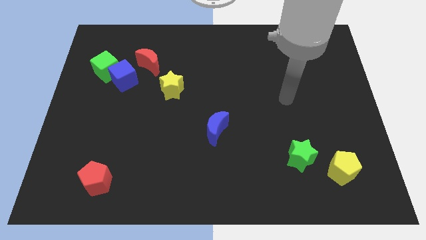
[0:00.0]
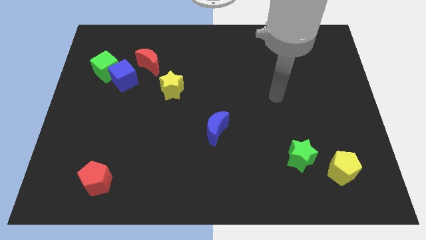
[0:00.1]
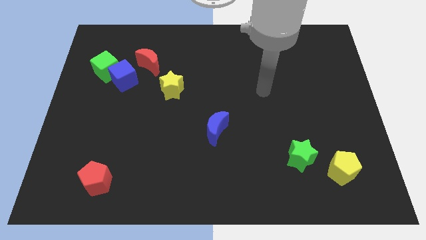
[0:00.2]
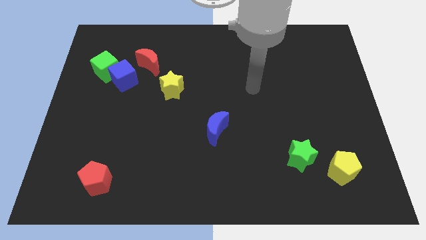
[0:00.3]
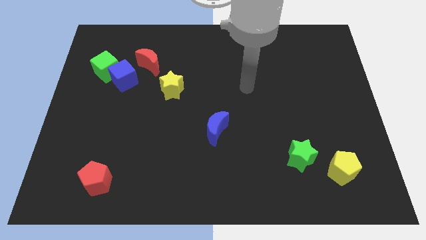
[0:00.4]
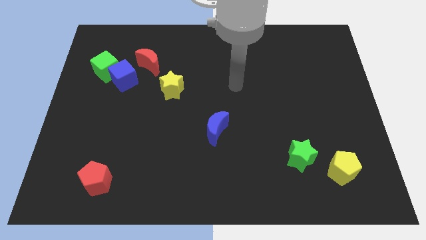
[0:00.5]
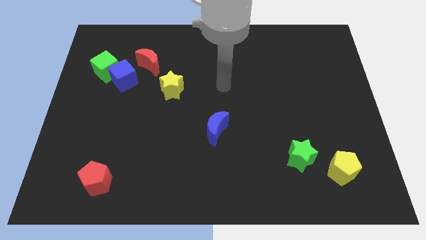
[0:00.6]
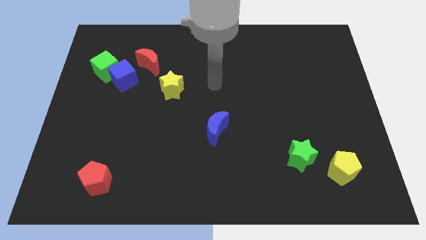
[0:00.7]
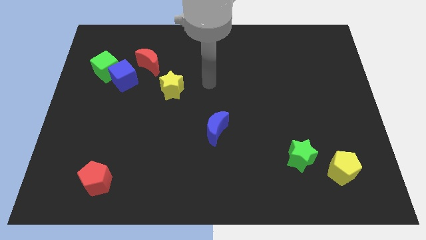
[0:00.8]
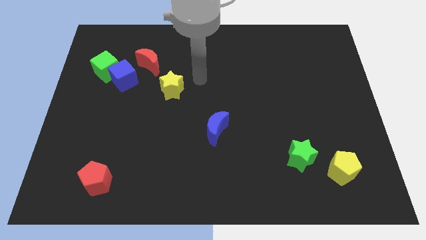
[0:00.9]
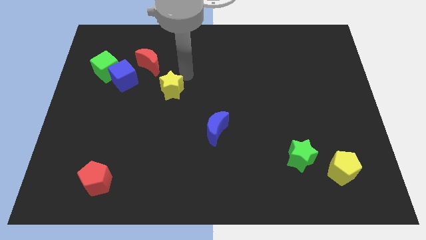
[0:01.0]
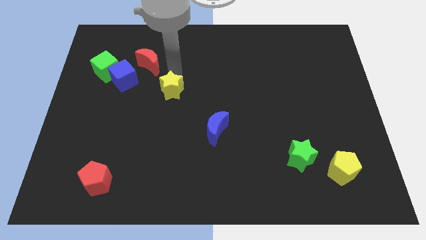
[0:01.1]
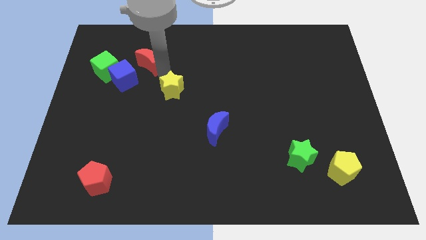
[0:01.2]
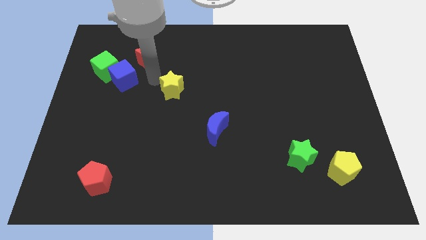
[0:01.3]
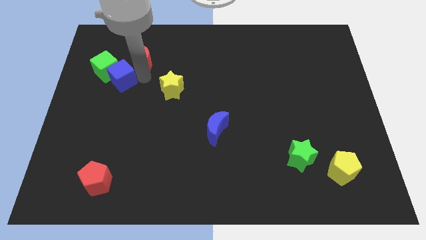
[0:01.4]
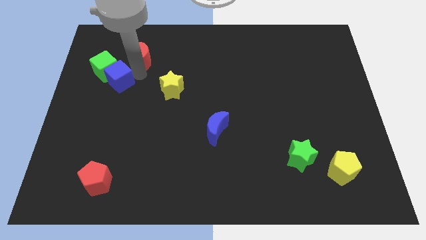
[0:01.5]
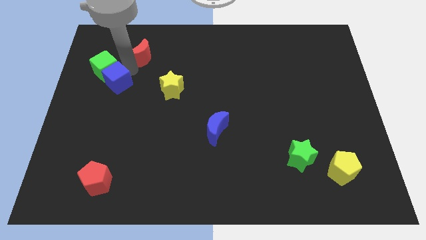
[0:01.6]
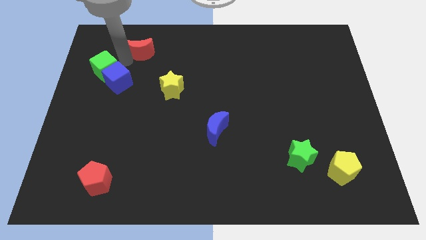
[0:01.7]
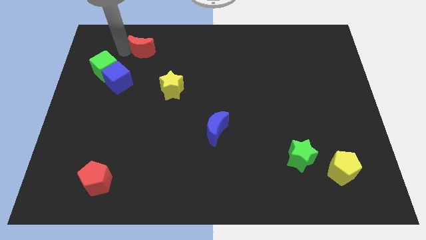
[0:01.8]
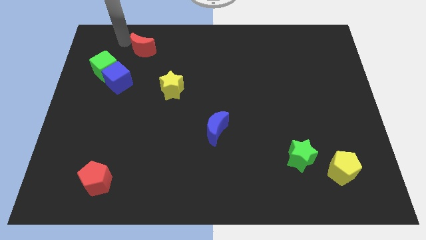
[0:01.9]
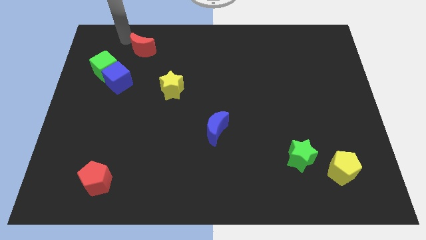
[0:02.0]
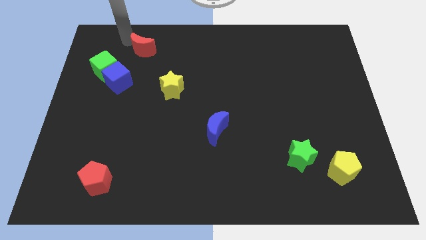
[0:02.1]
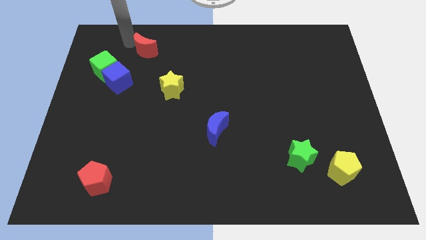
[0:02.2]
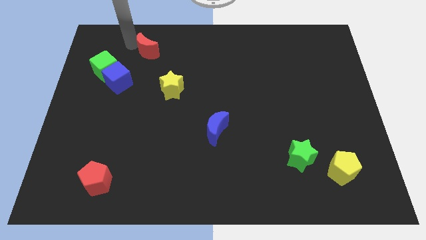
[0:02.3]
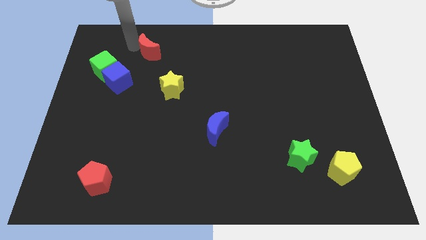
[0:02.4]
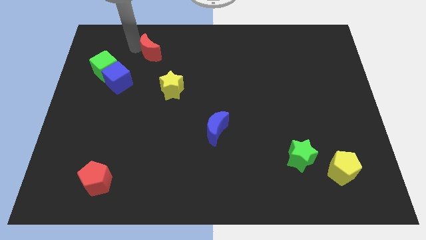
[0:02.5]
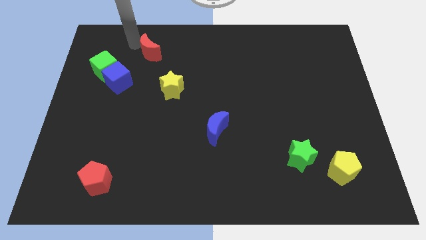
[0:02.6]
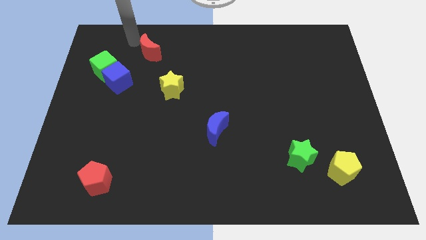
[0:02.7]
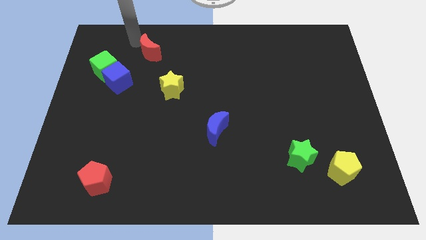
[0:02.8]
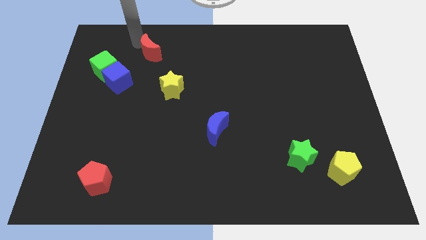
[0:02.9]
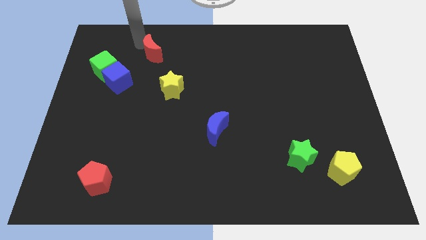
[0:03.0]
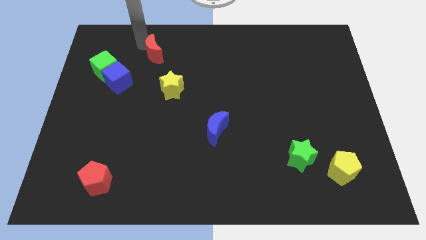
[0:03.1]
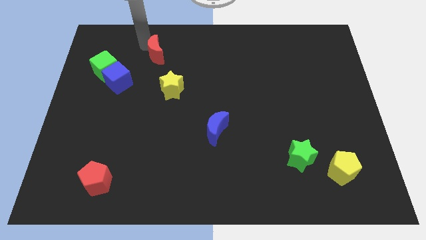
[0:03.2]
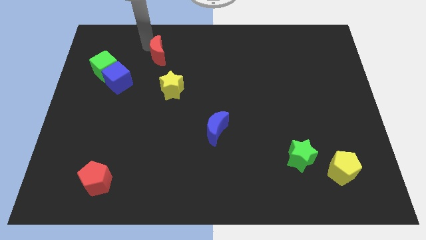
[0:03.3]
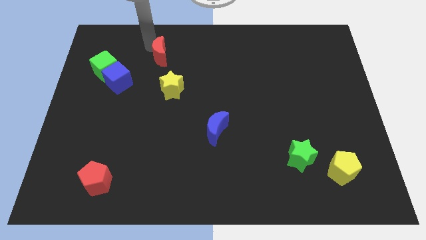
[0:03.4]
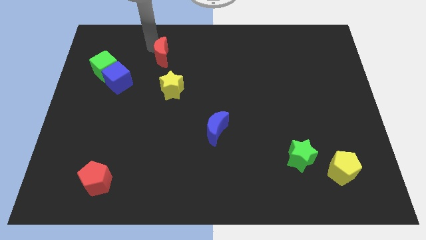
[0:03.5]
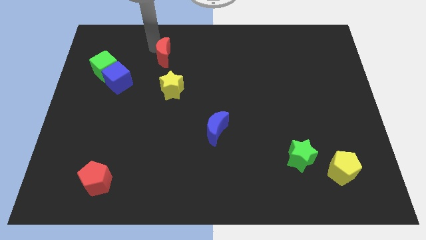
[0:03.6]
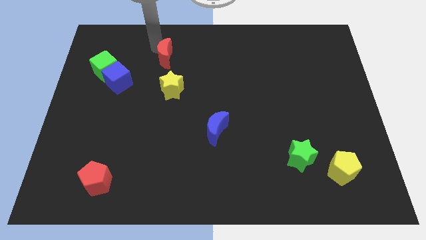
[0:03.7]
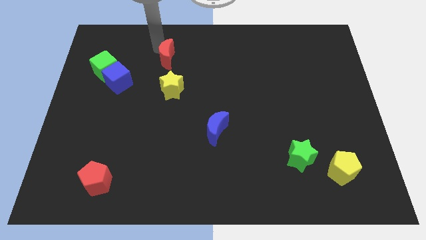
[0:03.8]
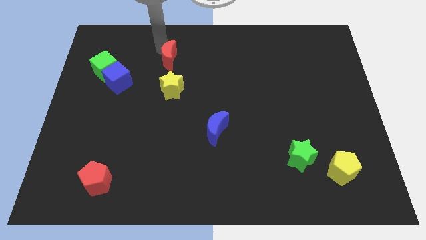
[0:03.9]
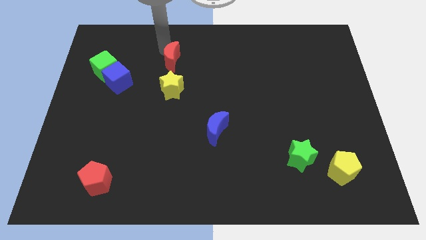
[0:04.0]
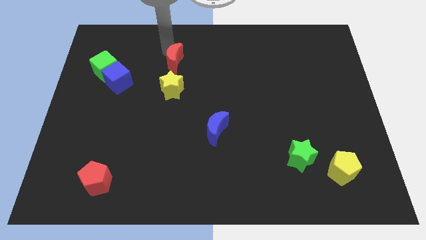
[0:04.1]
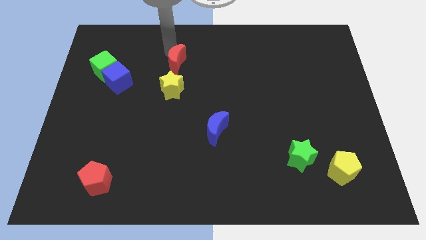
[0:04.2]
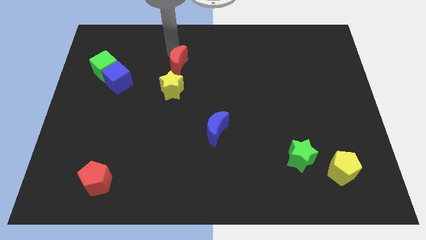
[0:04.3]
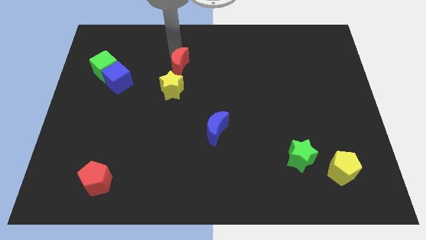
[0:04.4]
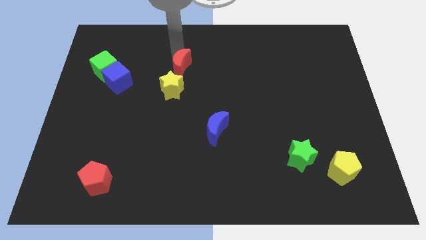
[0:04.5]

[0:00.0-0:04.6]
push the red moon to the top right of the yellow star

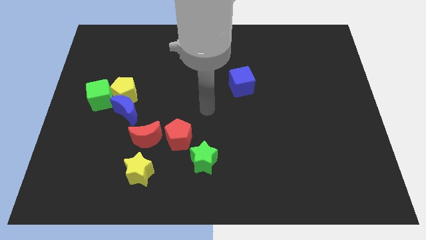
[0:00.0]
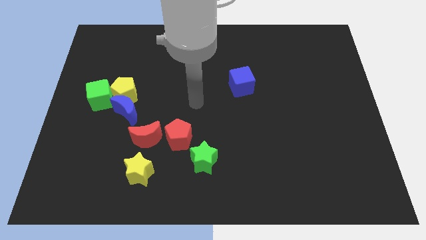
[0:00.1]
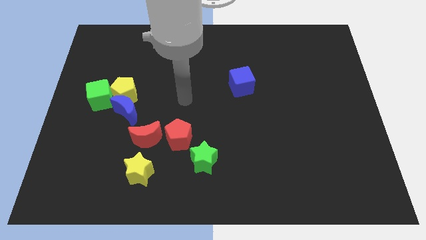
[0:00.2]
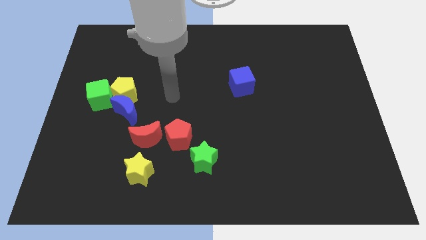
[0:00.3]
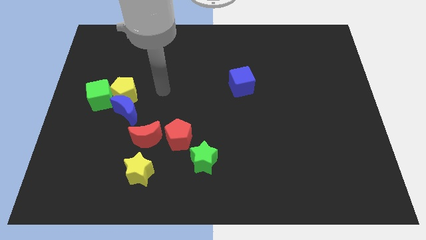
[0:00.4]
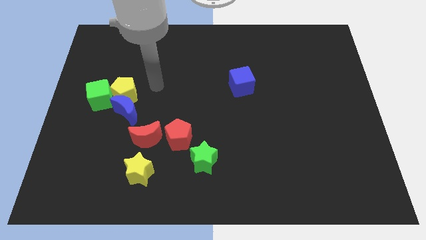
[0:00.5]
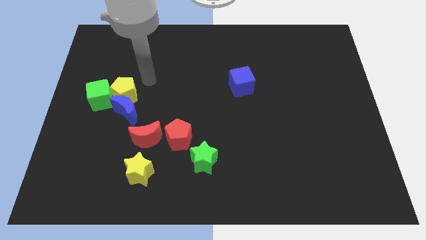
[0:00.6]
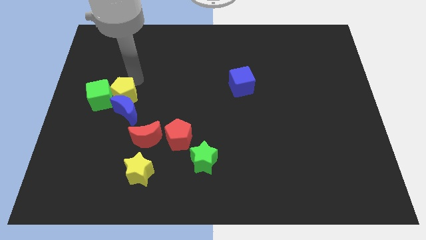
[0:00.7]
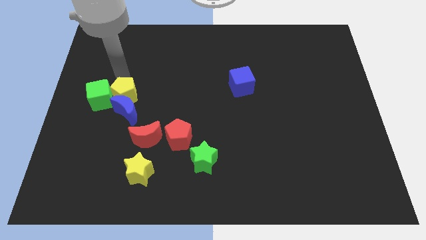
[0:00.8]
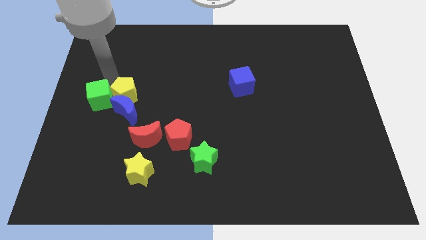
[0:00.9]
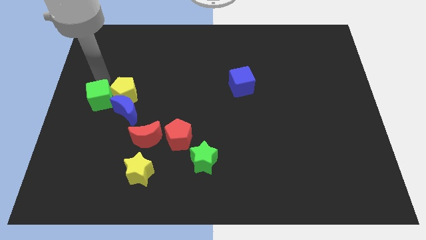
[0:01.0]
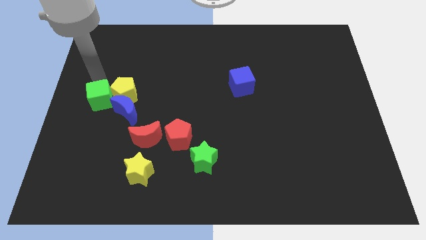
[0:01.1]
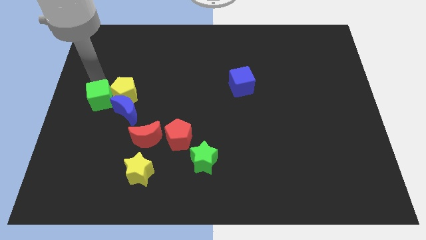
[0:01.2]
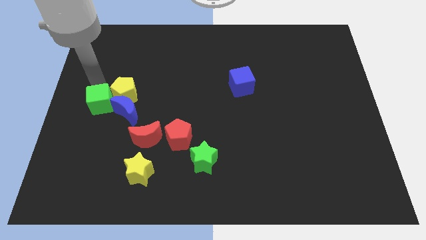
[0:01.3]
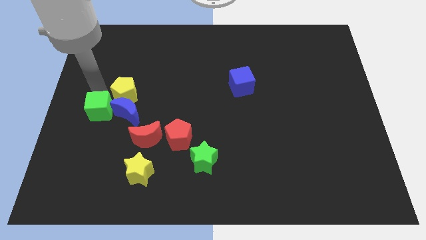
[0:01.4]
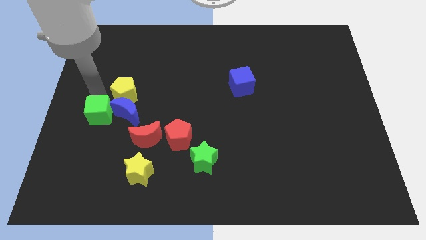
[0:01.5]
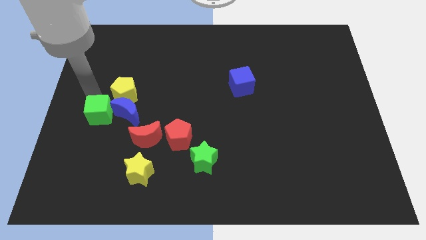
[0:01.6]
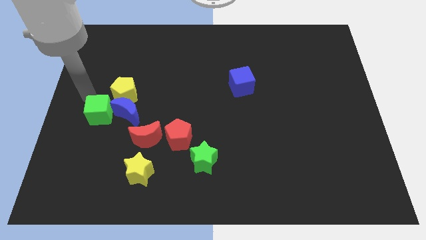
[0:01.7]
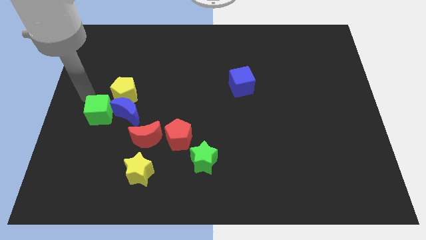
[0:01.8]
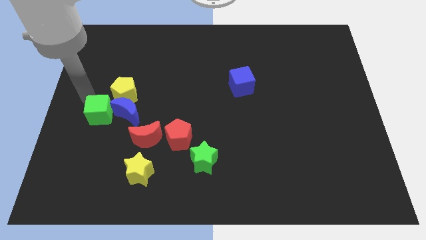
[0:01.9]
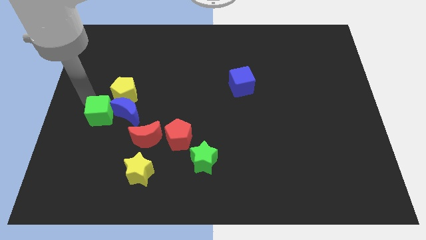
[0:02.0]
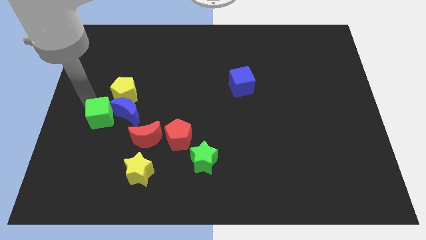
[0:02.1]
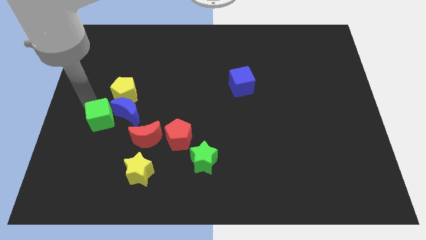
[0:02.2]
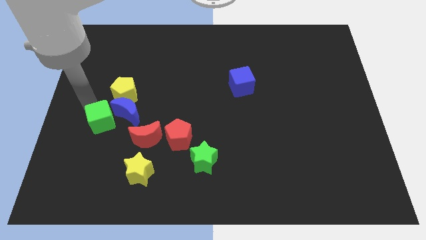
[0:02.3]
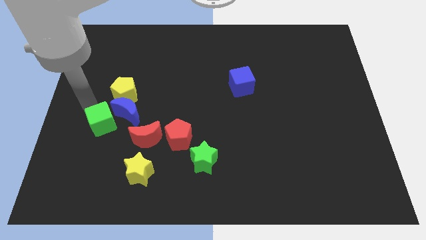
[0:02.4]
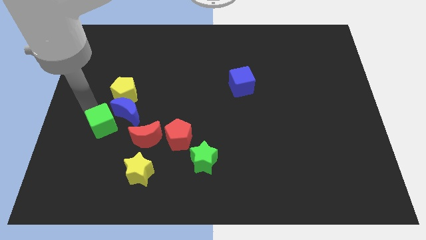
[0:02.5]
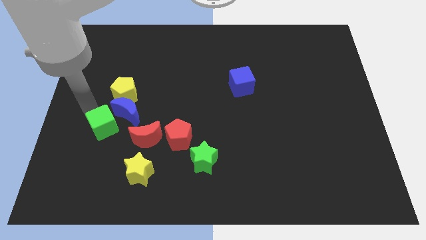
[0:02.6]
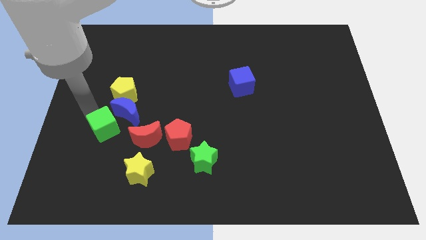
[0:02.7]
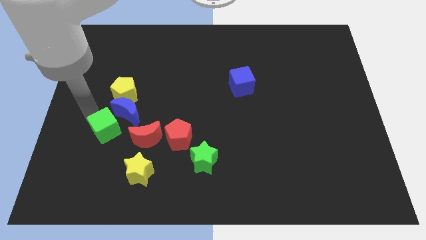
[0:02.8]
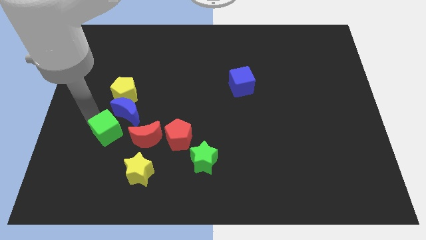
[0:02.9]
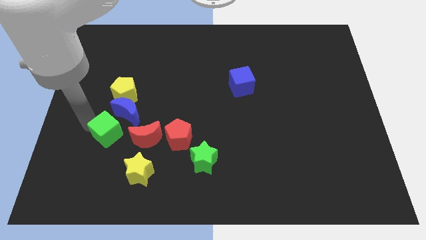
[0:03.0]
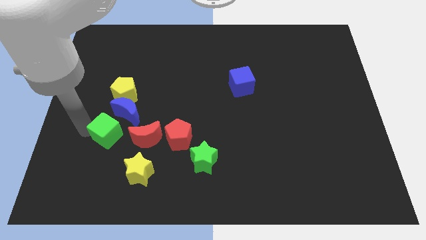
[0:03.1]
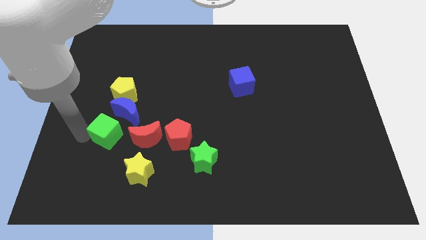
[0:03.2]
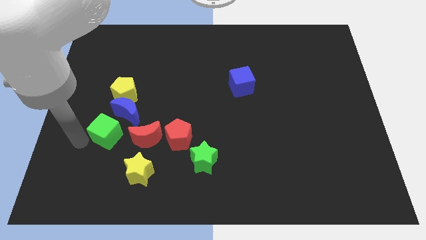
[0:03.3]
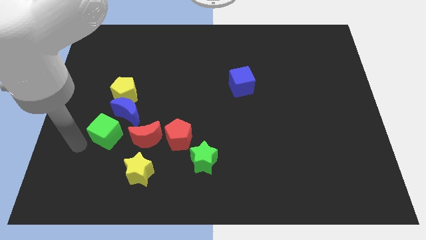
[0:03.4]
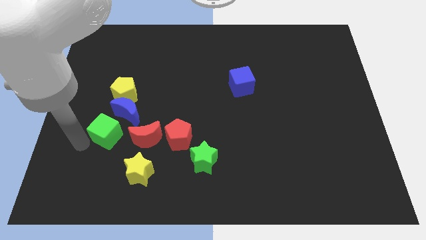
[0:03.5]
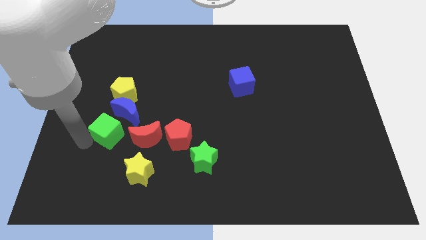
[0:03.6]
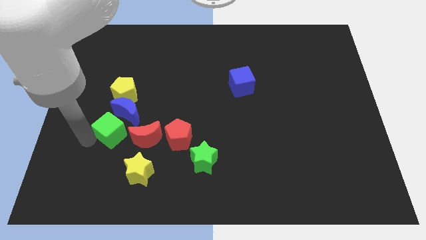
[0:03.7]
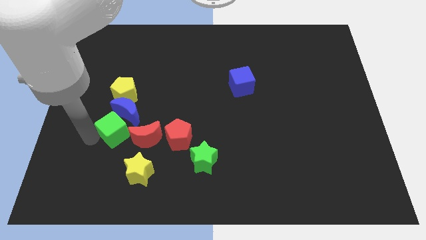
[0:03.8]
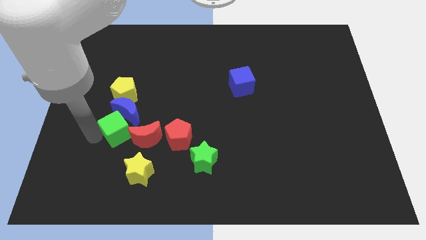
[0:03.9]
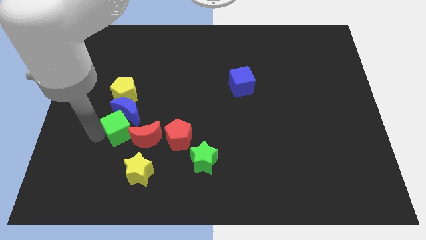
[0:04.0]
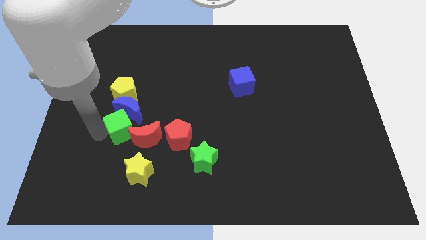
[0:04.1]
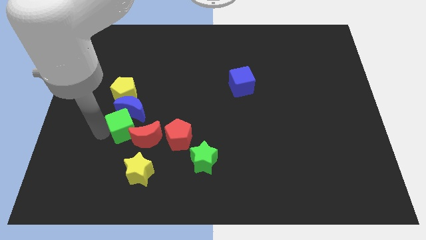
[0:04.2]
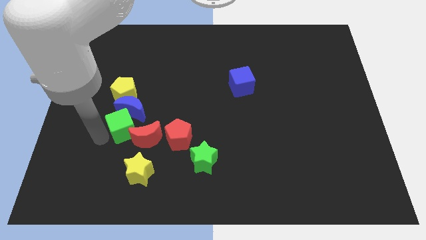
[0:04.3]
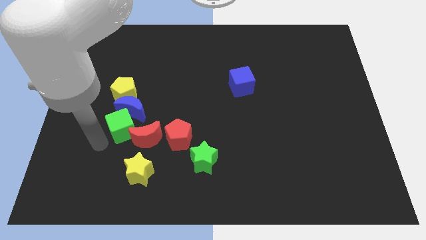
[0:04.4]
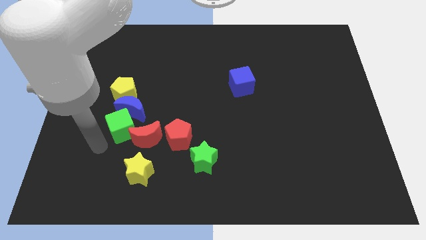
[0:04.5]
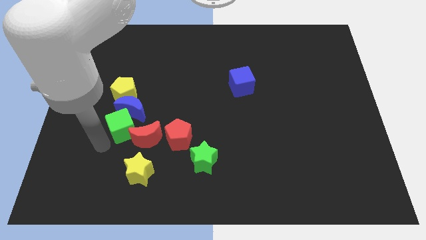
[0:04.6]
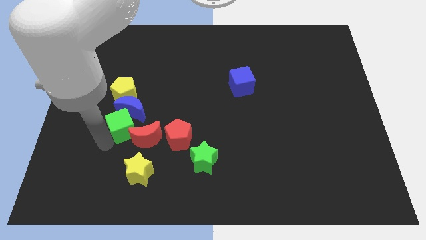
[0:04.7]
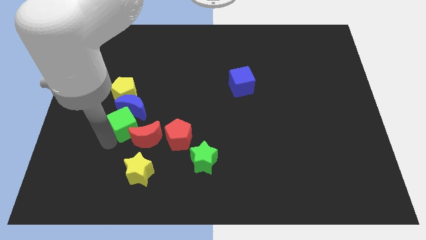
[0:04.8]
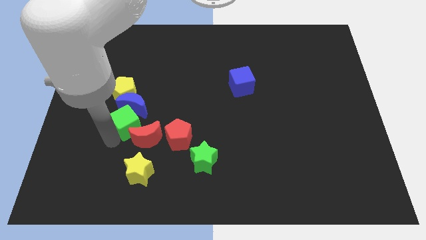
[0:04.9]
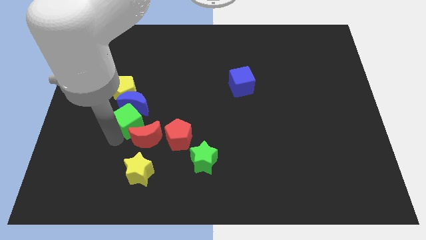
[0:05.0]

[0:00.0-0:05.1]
slide the green cube to the bottom right of the yellow pentagon
